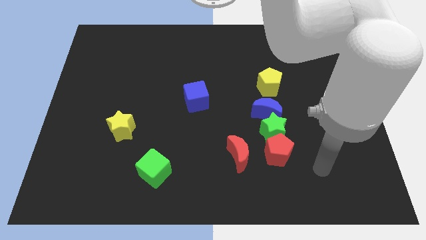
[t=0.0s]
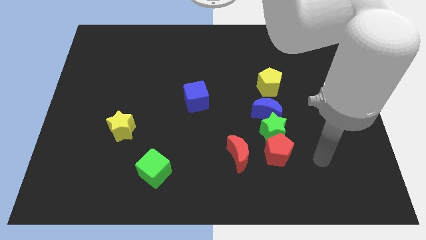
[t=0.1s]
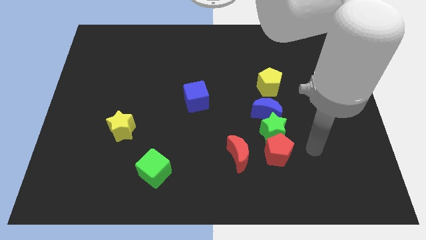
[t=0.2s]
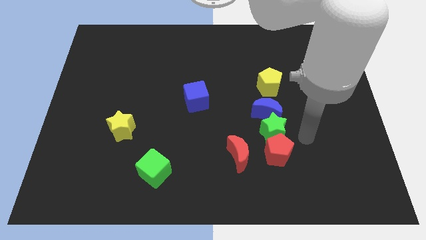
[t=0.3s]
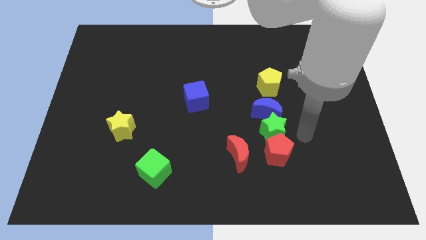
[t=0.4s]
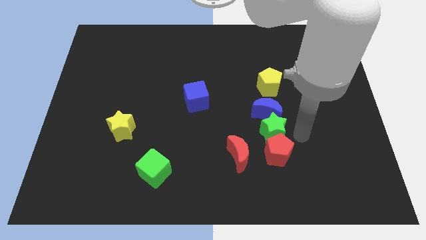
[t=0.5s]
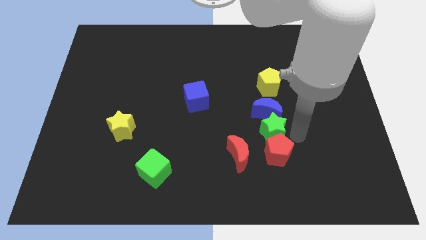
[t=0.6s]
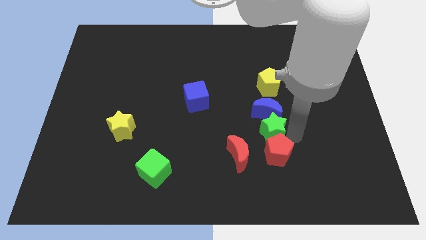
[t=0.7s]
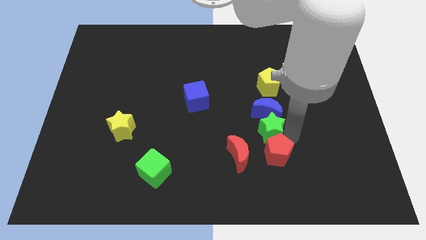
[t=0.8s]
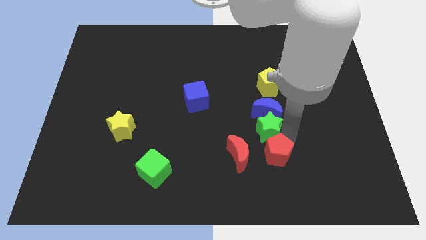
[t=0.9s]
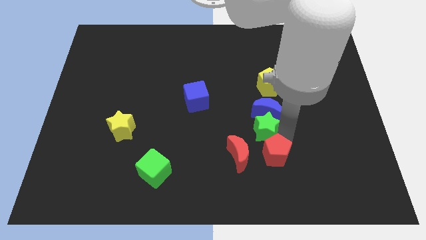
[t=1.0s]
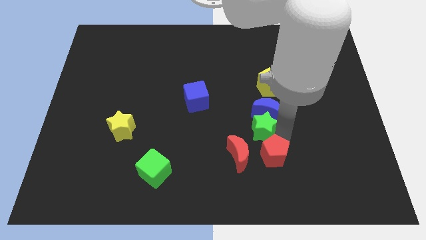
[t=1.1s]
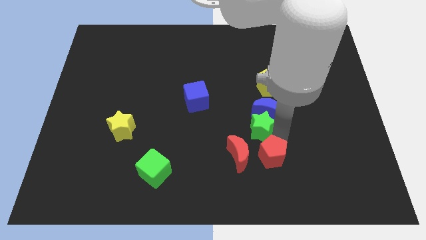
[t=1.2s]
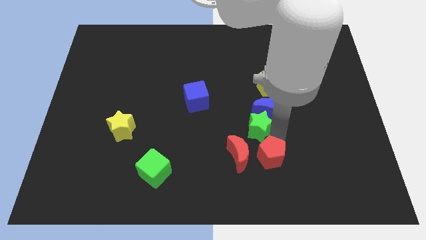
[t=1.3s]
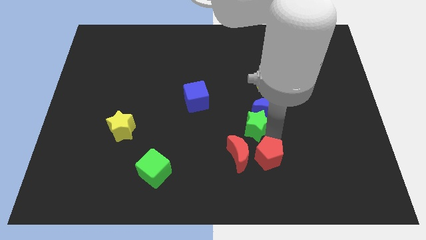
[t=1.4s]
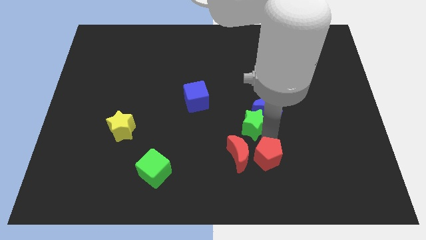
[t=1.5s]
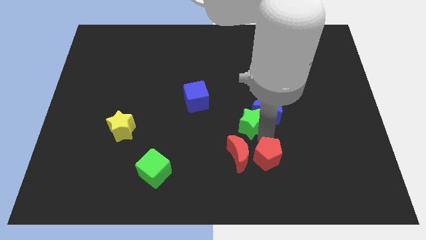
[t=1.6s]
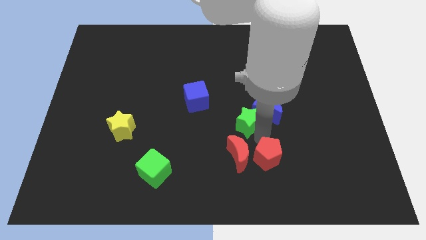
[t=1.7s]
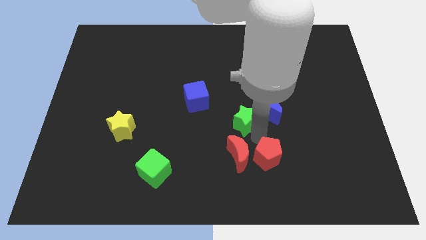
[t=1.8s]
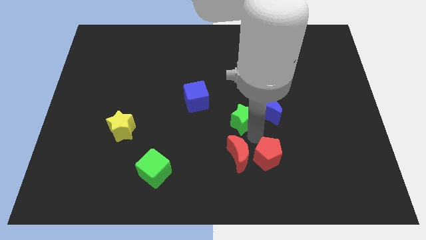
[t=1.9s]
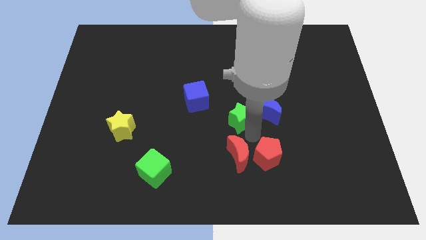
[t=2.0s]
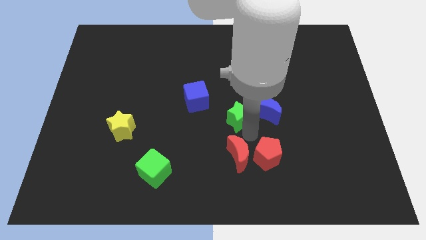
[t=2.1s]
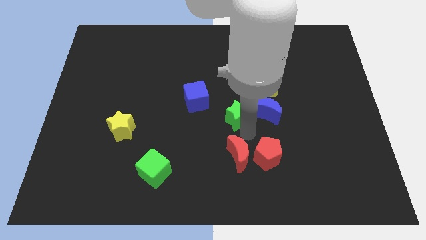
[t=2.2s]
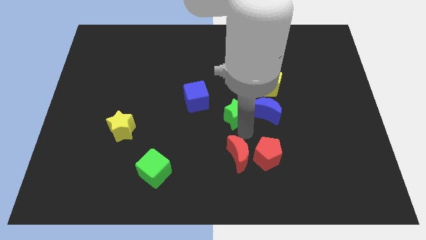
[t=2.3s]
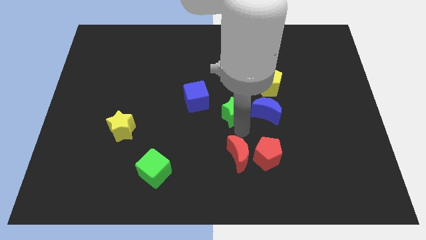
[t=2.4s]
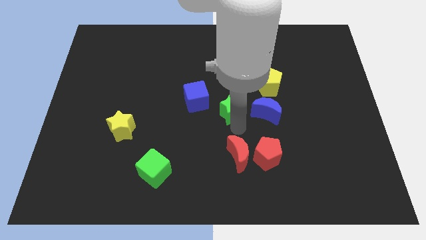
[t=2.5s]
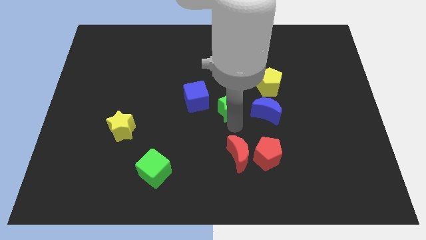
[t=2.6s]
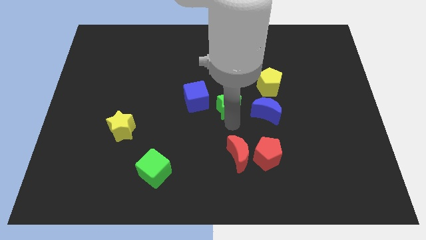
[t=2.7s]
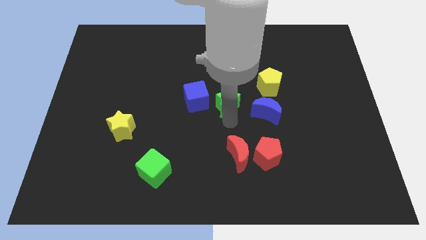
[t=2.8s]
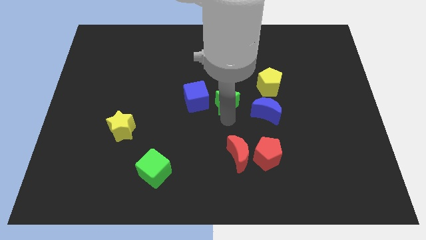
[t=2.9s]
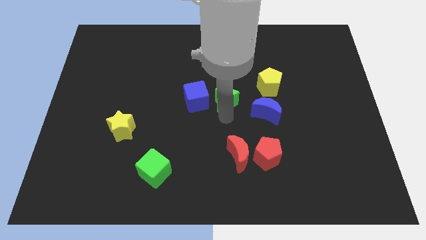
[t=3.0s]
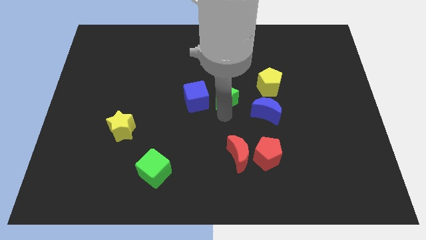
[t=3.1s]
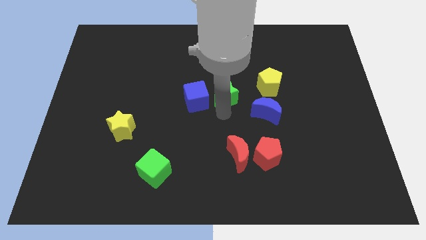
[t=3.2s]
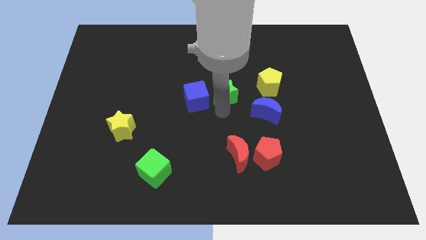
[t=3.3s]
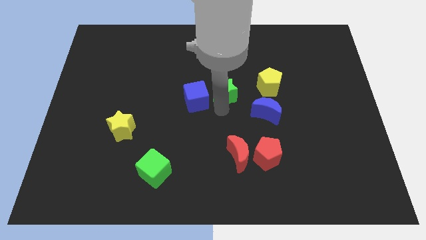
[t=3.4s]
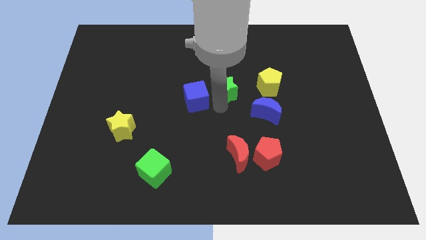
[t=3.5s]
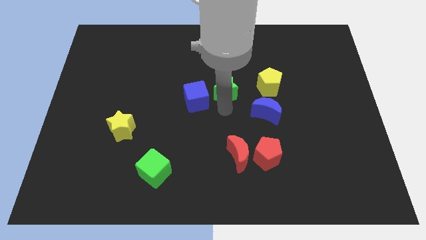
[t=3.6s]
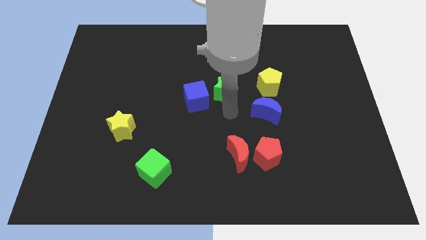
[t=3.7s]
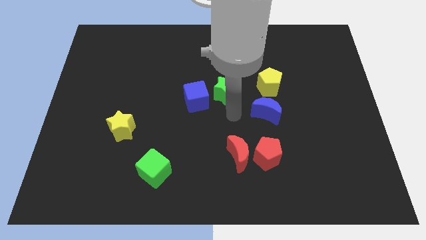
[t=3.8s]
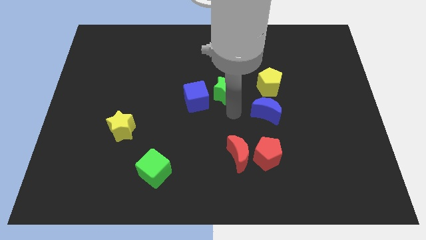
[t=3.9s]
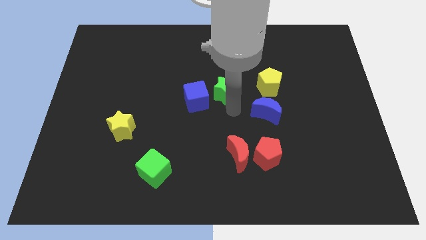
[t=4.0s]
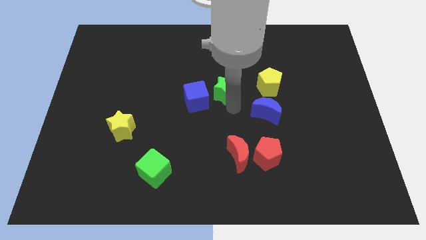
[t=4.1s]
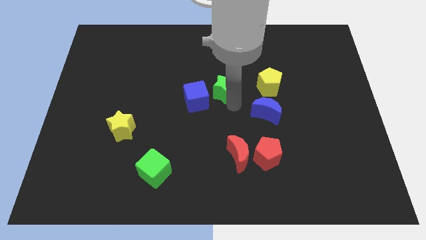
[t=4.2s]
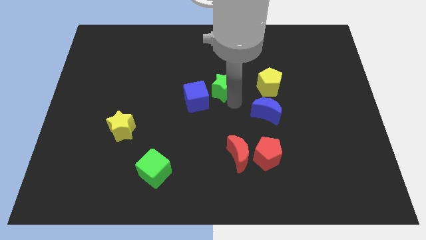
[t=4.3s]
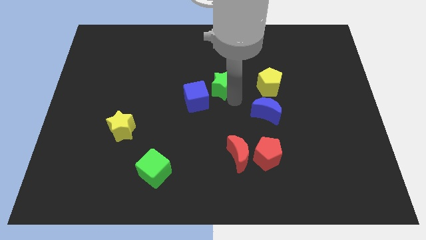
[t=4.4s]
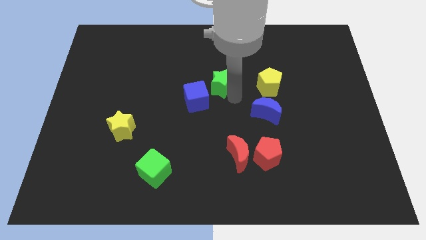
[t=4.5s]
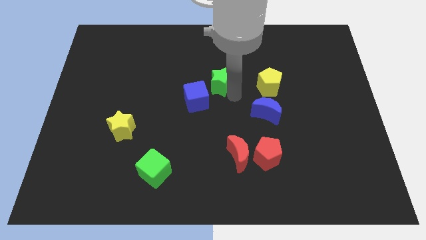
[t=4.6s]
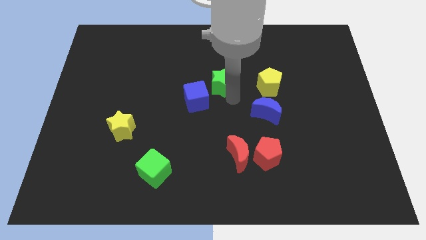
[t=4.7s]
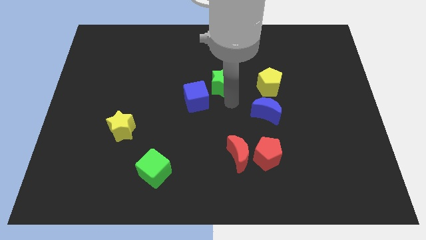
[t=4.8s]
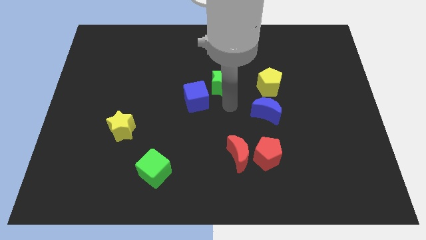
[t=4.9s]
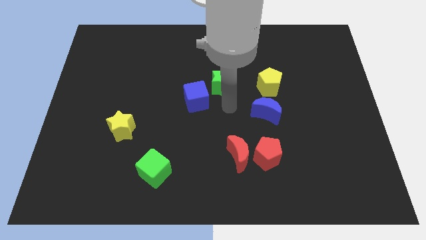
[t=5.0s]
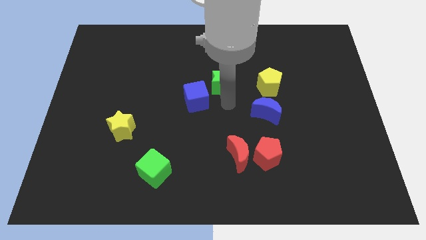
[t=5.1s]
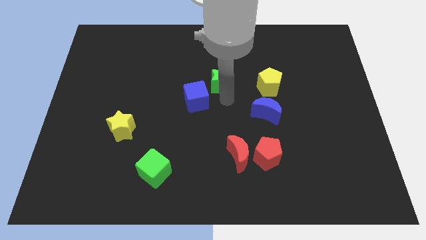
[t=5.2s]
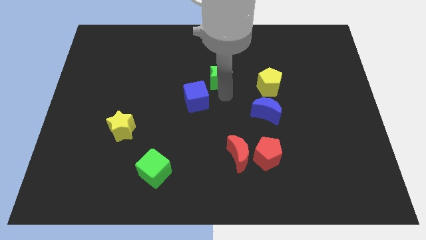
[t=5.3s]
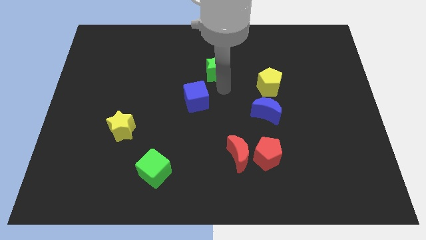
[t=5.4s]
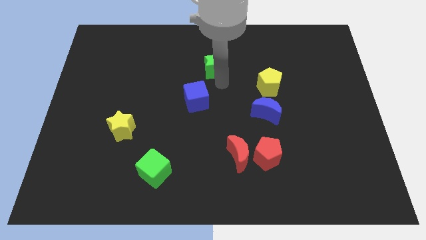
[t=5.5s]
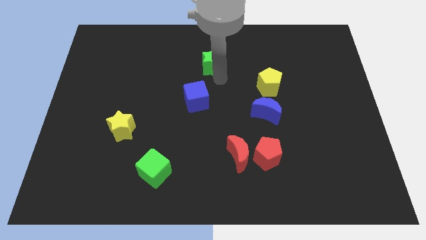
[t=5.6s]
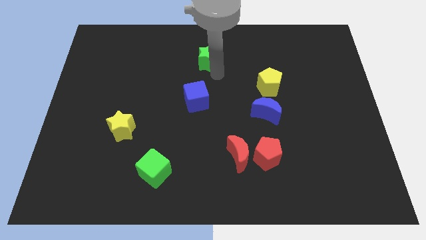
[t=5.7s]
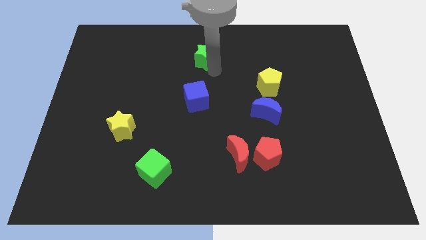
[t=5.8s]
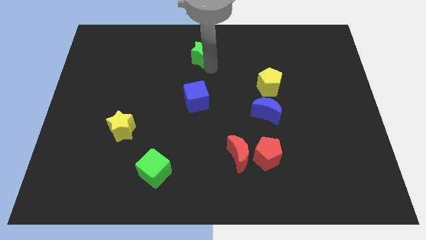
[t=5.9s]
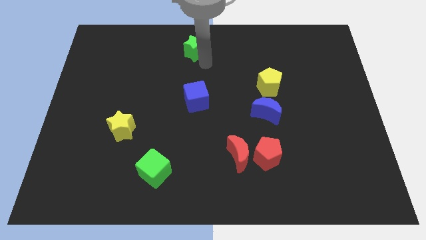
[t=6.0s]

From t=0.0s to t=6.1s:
put the green star to the top side

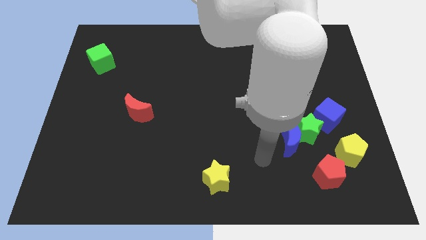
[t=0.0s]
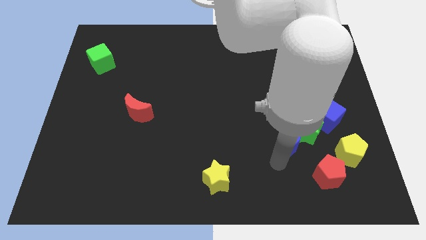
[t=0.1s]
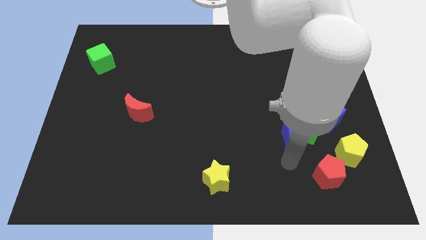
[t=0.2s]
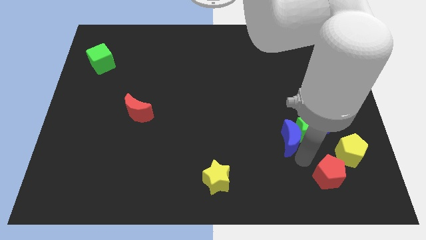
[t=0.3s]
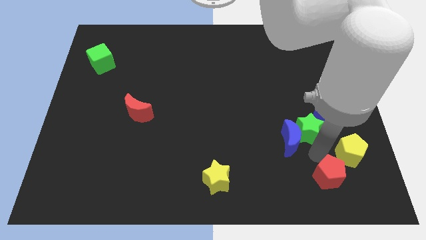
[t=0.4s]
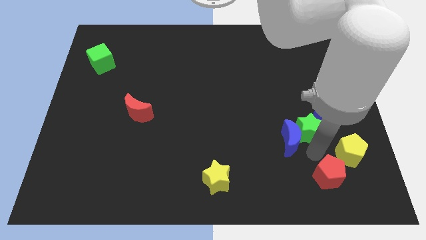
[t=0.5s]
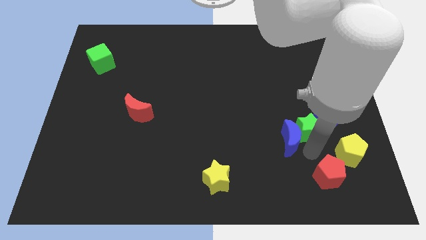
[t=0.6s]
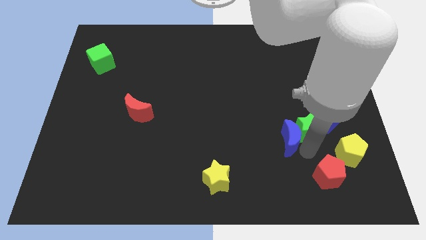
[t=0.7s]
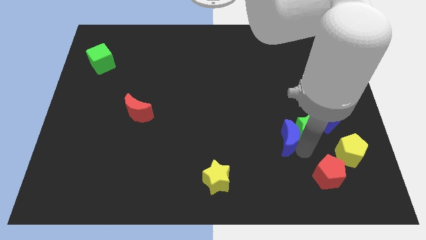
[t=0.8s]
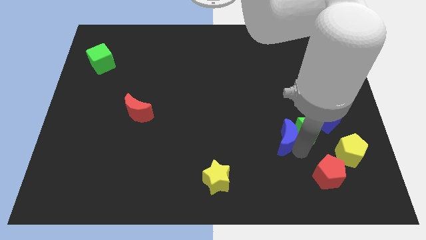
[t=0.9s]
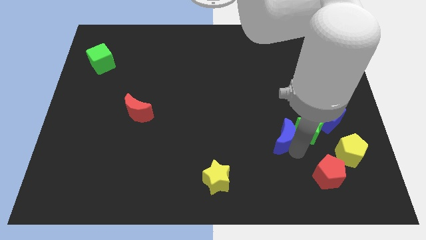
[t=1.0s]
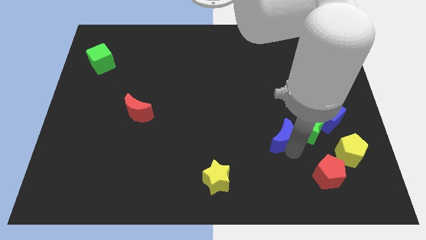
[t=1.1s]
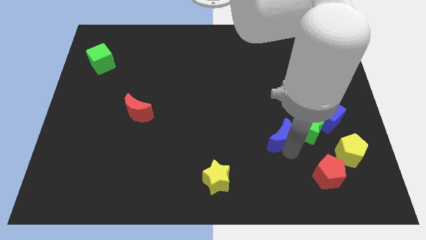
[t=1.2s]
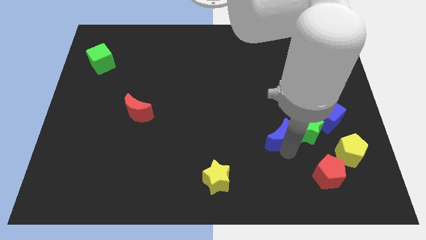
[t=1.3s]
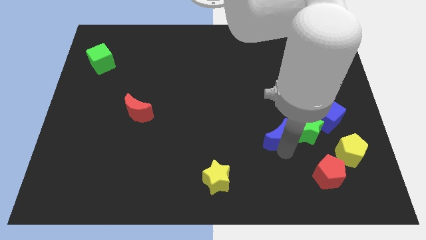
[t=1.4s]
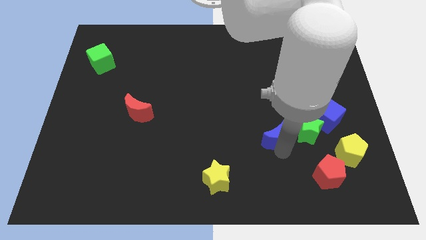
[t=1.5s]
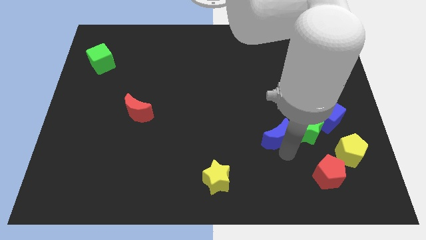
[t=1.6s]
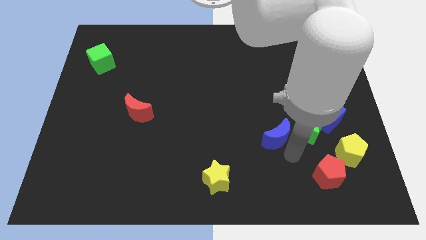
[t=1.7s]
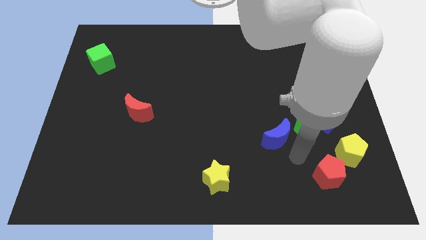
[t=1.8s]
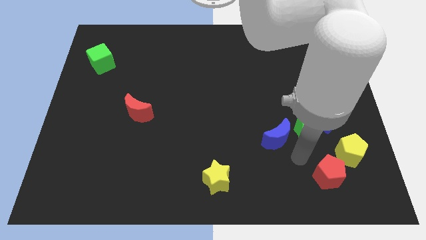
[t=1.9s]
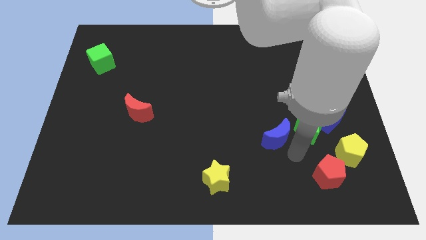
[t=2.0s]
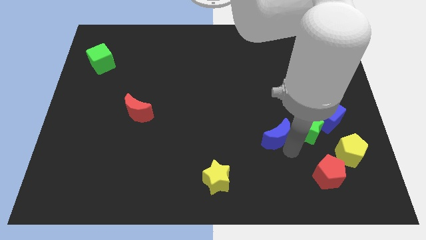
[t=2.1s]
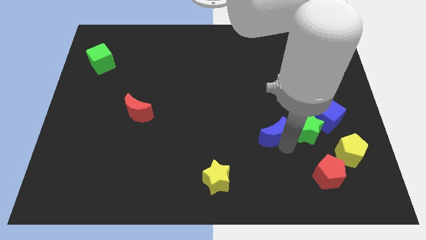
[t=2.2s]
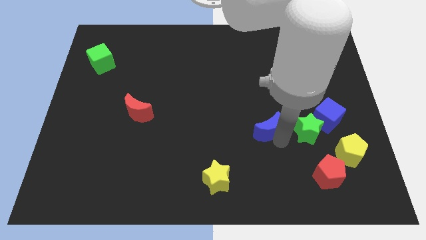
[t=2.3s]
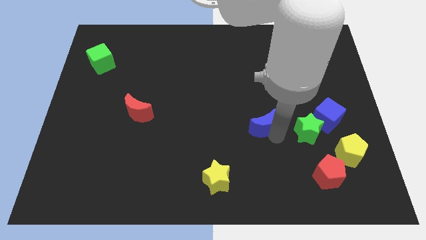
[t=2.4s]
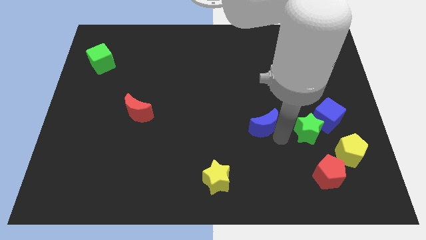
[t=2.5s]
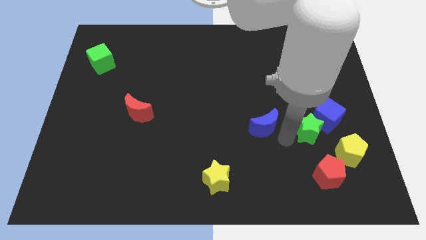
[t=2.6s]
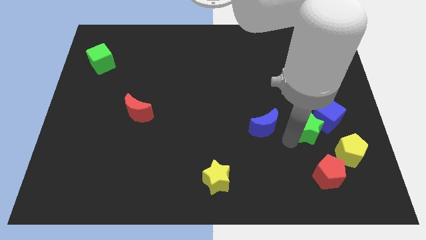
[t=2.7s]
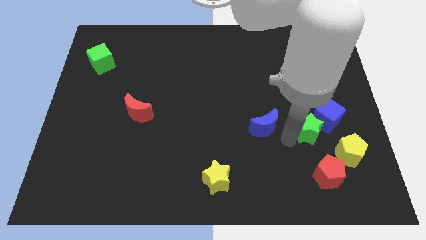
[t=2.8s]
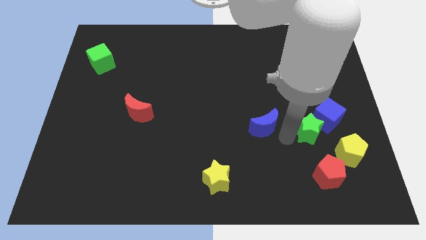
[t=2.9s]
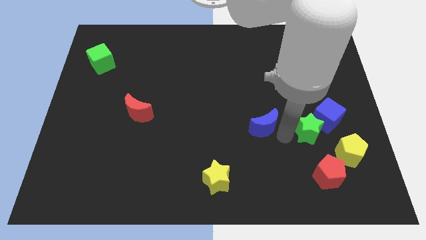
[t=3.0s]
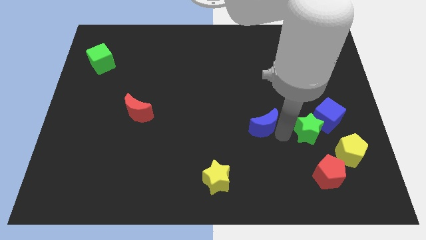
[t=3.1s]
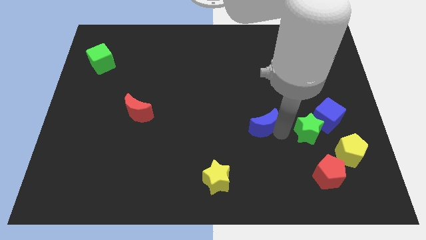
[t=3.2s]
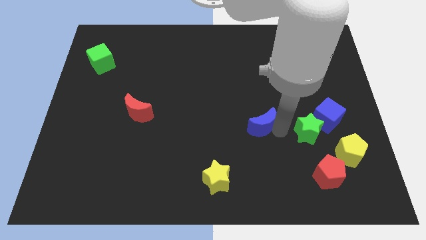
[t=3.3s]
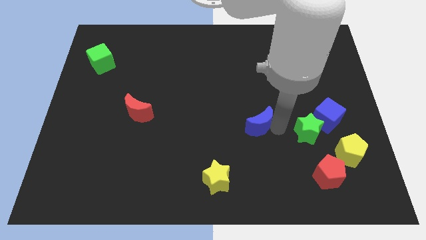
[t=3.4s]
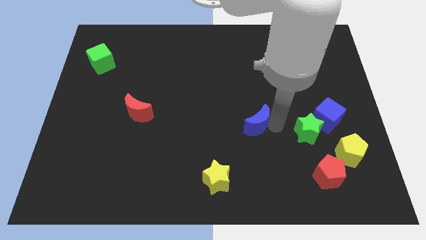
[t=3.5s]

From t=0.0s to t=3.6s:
put the blue moon to the middle of the board
